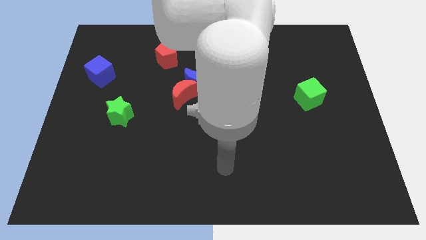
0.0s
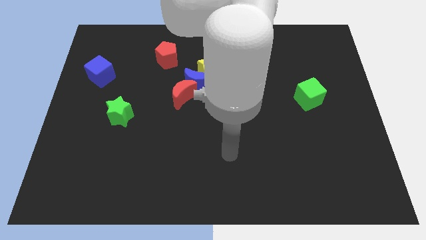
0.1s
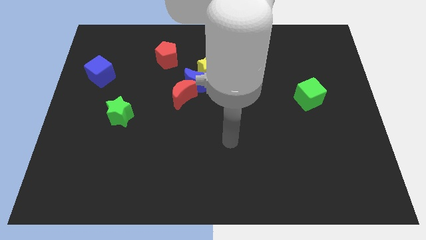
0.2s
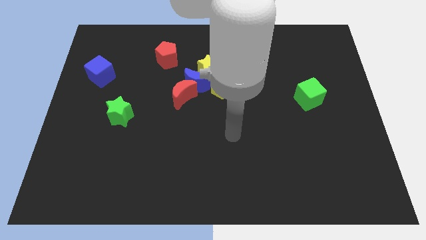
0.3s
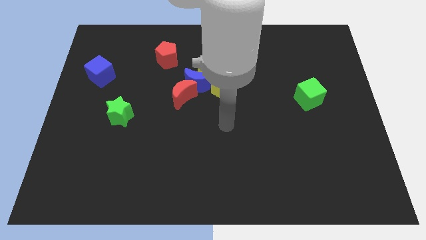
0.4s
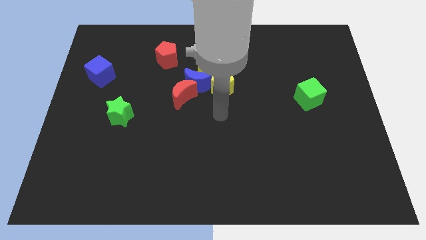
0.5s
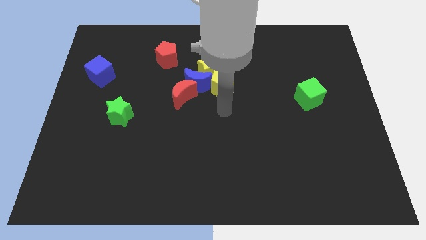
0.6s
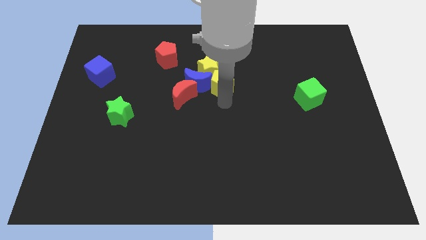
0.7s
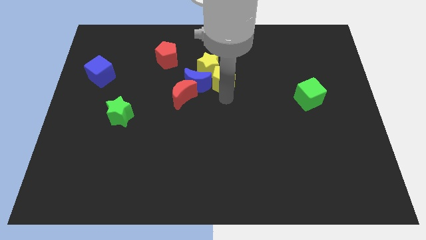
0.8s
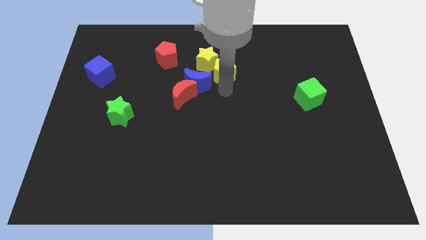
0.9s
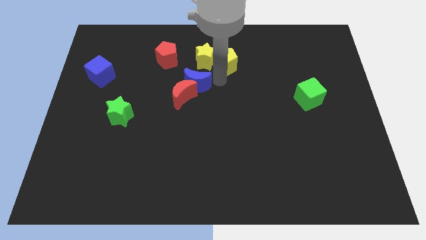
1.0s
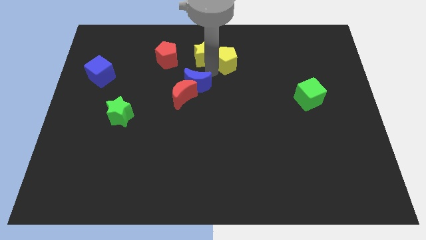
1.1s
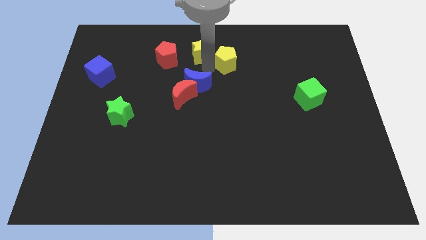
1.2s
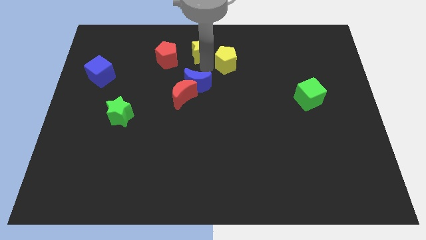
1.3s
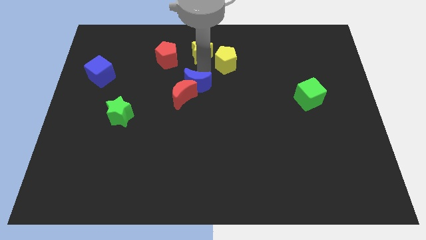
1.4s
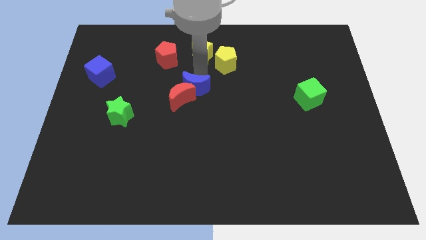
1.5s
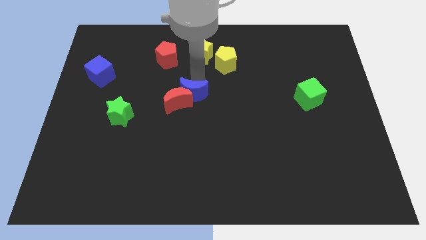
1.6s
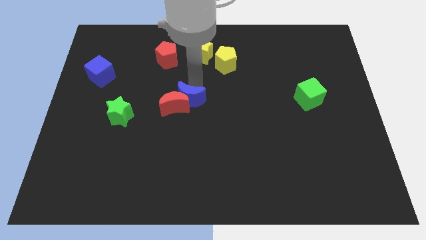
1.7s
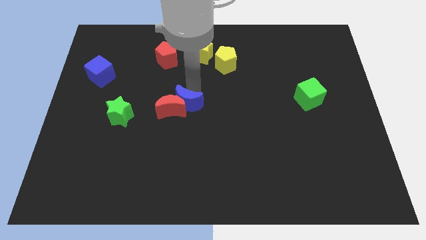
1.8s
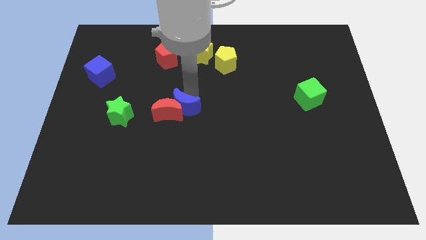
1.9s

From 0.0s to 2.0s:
pull the blue moon apart from the red moon, yellow star, and yellow pentagon

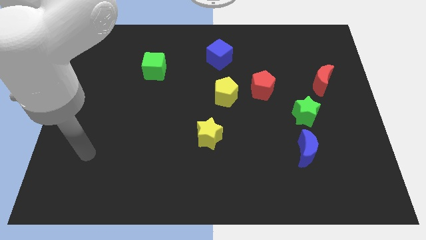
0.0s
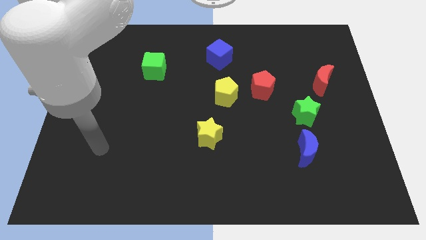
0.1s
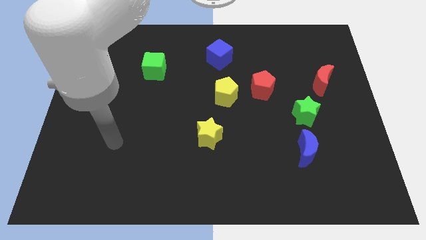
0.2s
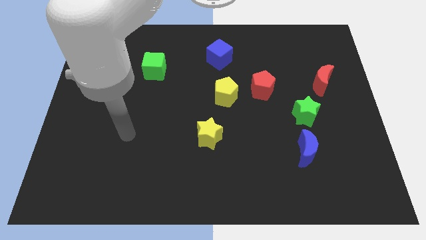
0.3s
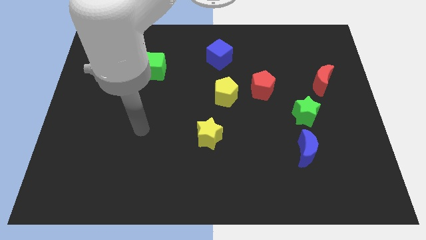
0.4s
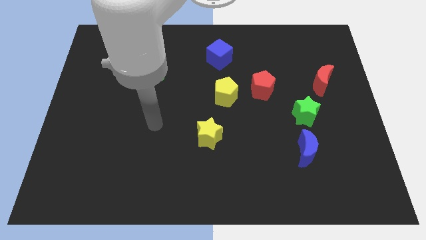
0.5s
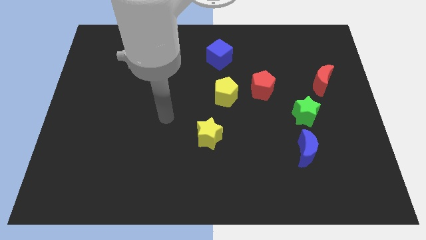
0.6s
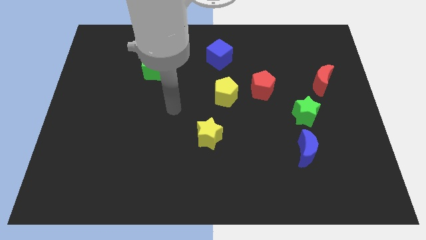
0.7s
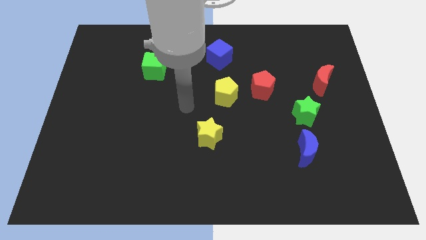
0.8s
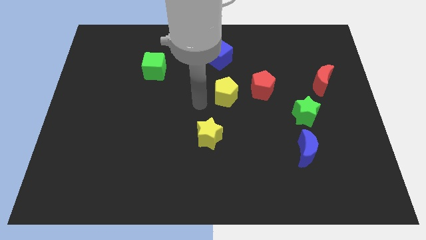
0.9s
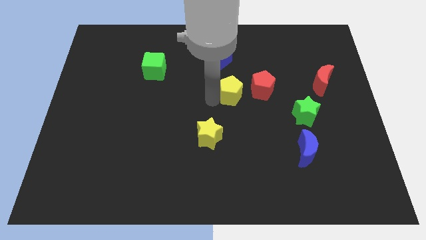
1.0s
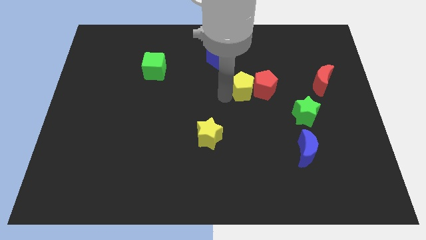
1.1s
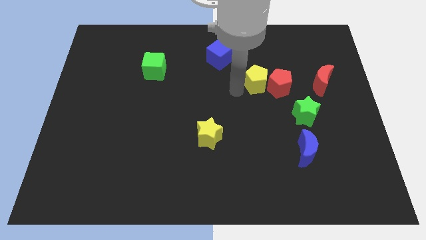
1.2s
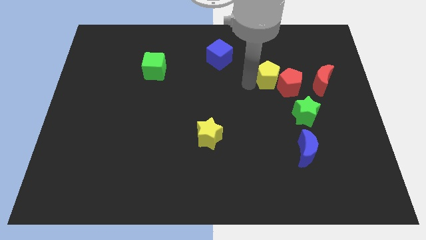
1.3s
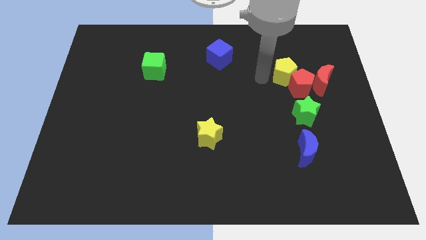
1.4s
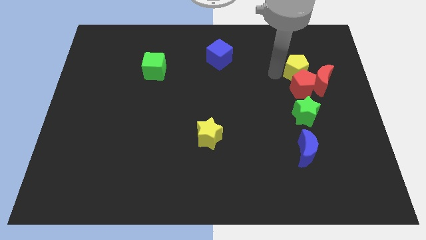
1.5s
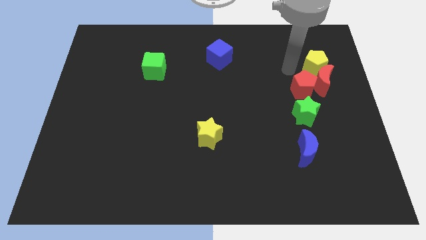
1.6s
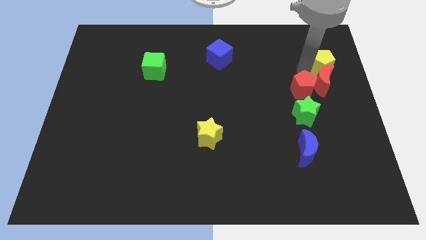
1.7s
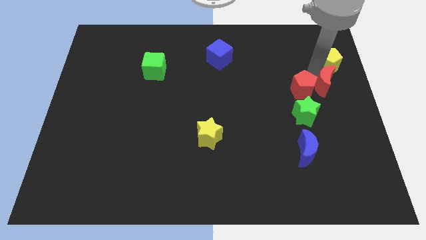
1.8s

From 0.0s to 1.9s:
separate the red pentagon from the yellow pentagon

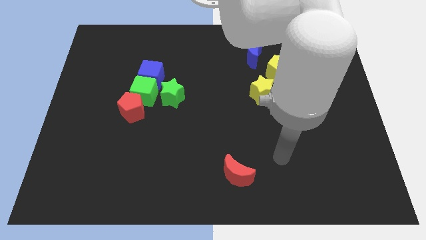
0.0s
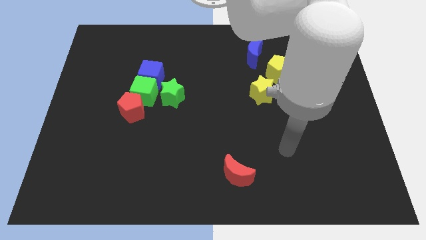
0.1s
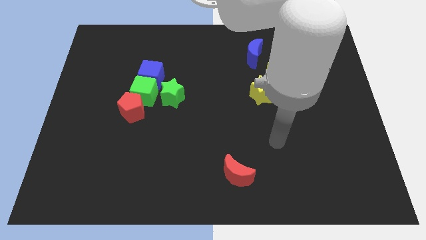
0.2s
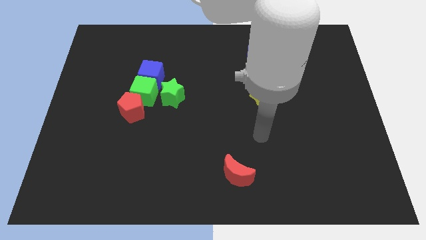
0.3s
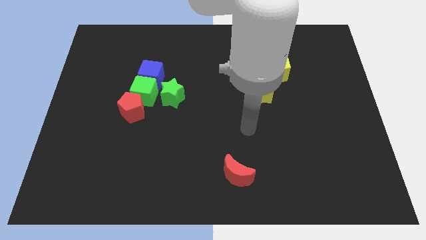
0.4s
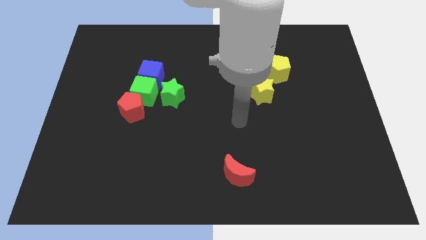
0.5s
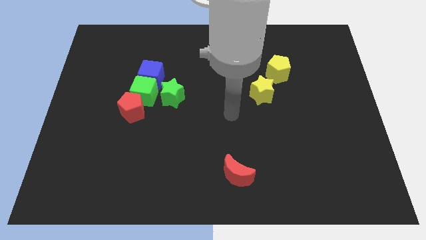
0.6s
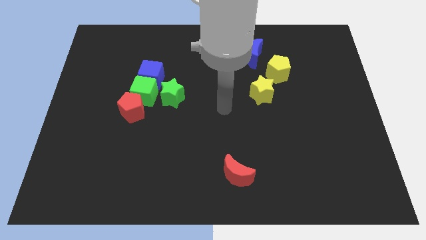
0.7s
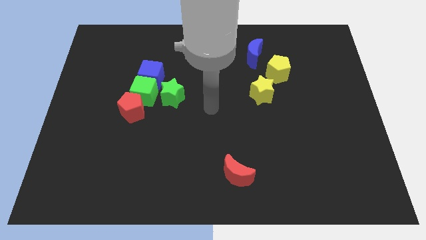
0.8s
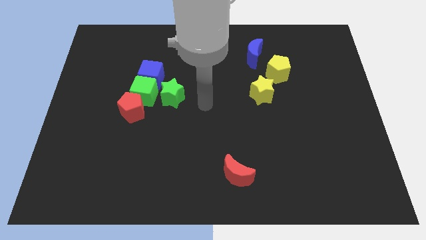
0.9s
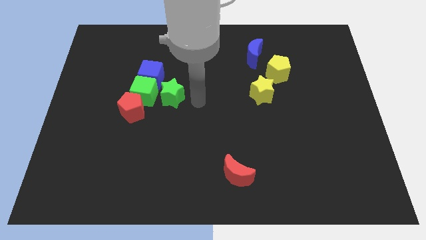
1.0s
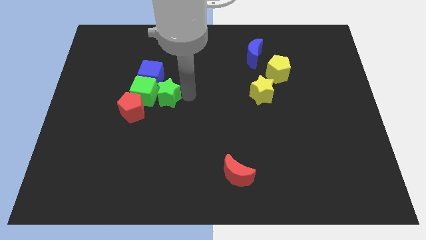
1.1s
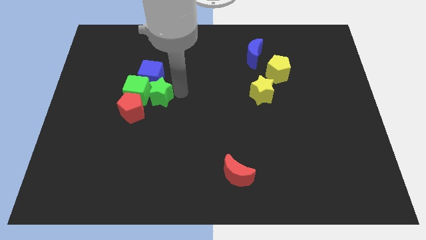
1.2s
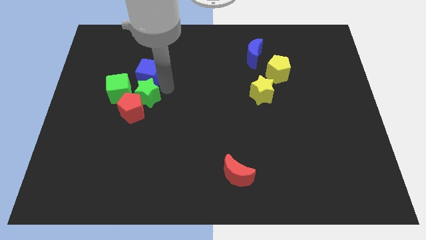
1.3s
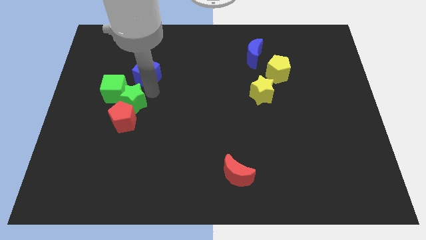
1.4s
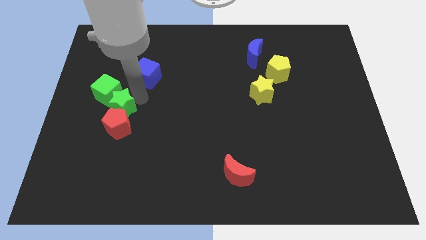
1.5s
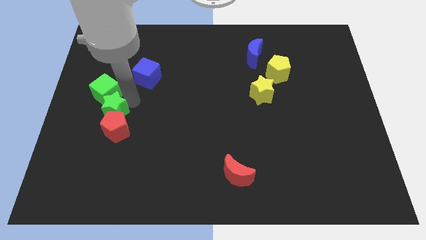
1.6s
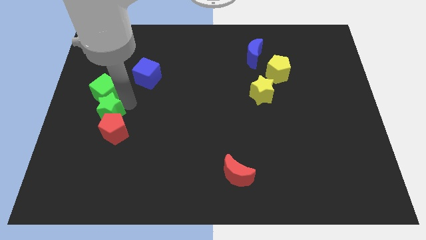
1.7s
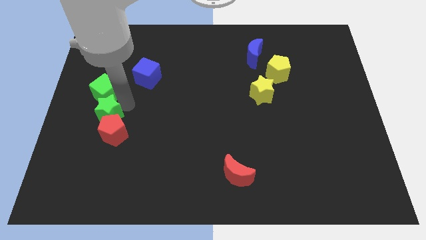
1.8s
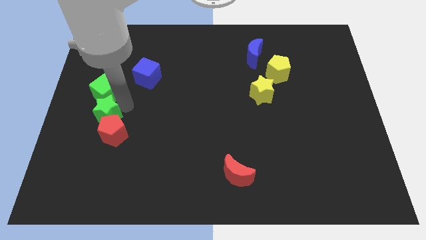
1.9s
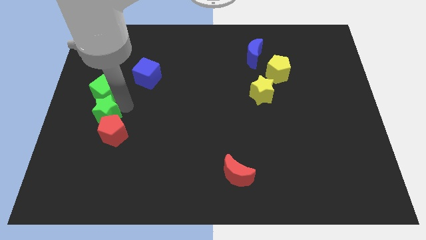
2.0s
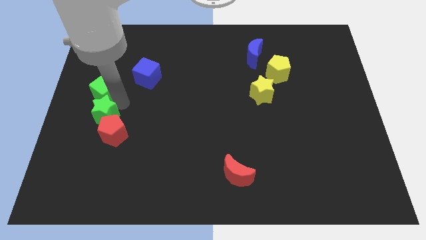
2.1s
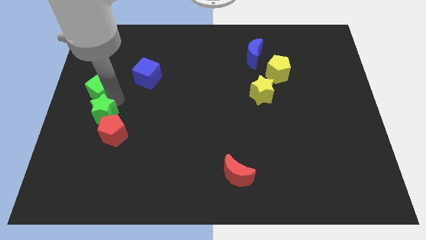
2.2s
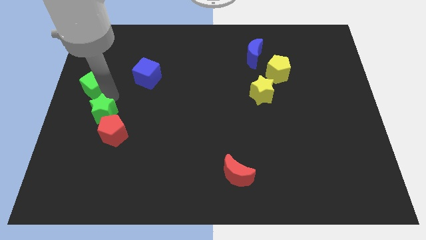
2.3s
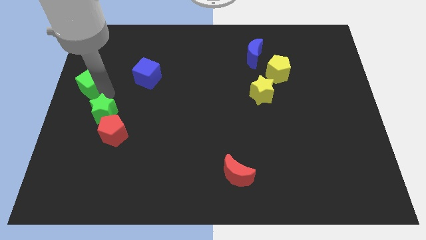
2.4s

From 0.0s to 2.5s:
pull the green cube apart from the blue cube, red pentagon, and green star

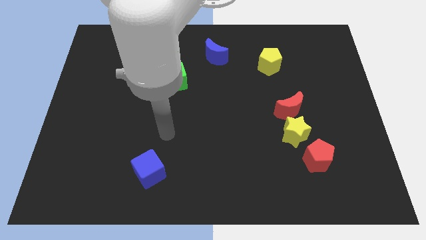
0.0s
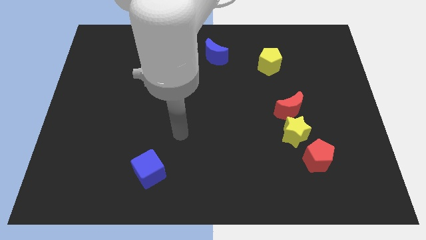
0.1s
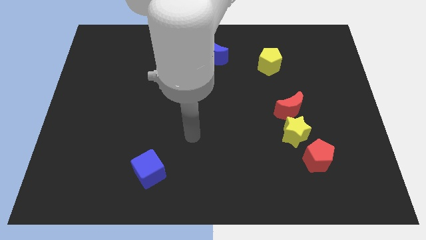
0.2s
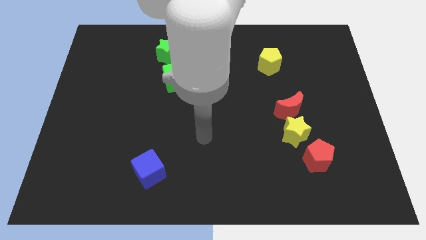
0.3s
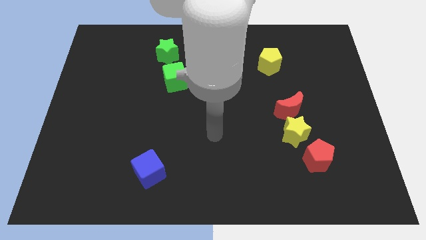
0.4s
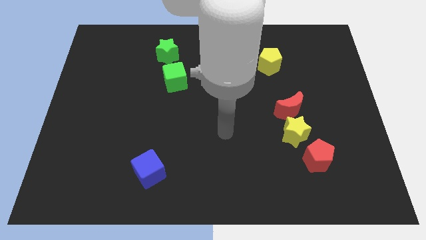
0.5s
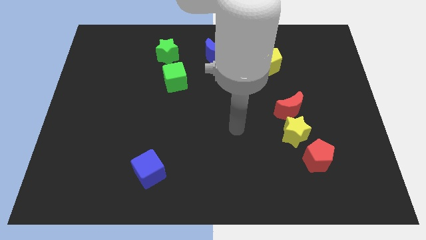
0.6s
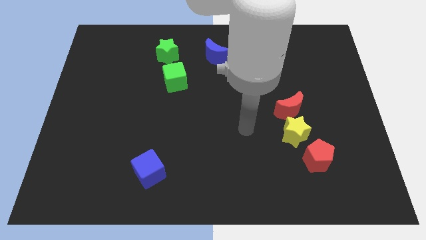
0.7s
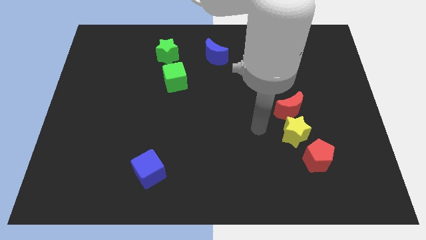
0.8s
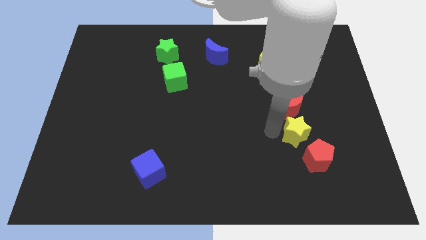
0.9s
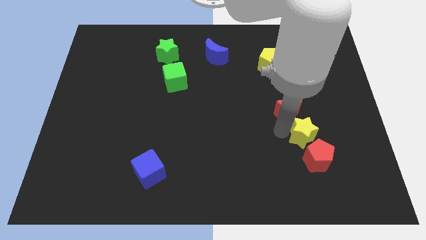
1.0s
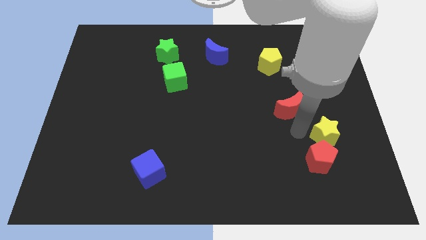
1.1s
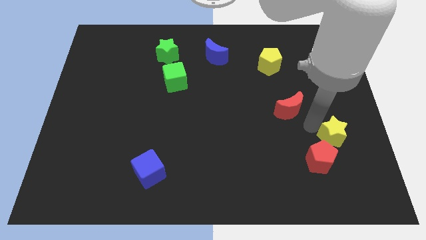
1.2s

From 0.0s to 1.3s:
pull the red moon apart from the yellow star

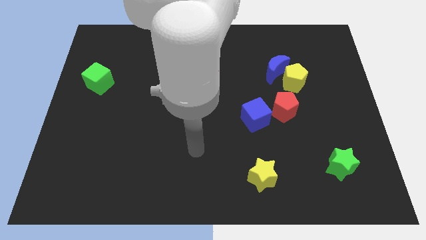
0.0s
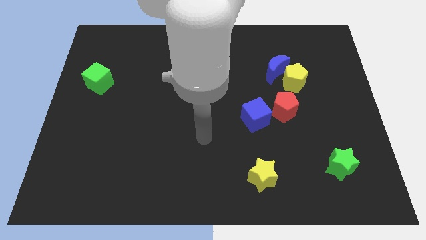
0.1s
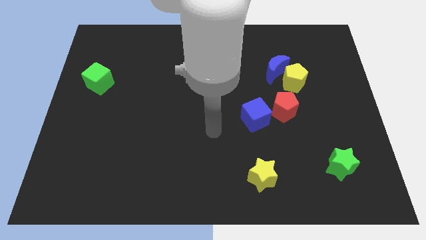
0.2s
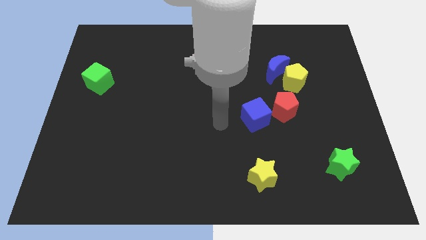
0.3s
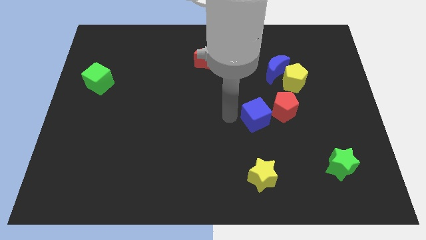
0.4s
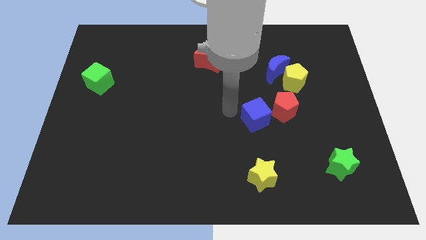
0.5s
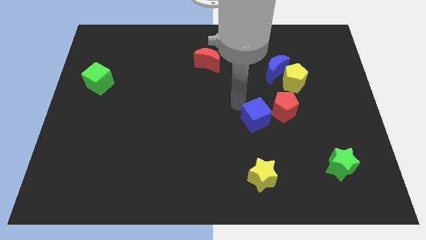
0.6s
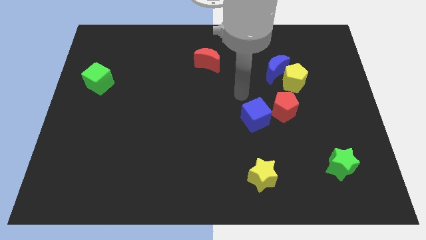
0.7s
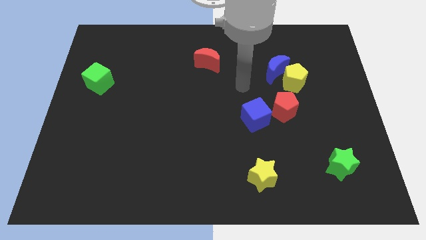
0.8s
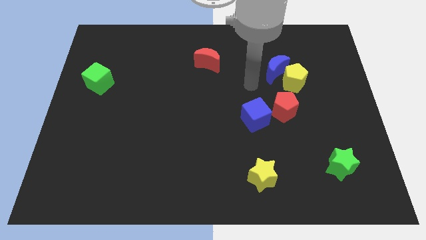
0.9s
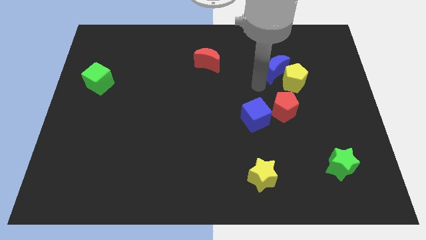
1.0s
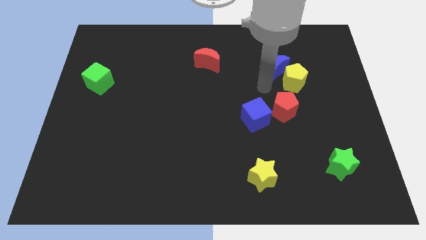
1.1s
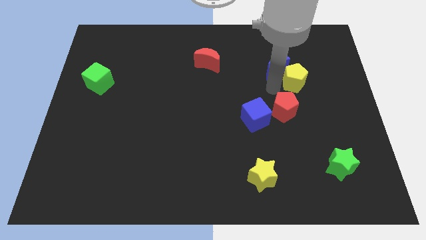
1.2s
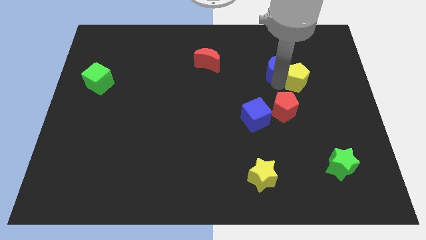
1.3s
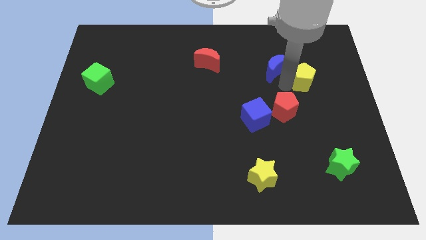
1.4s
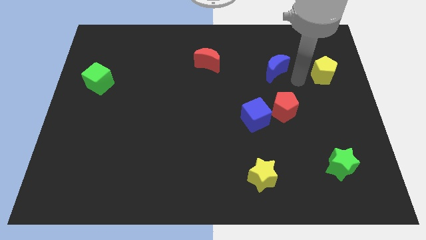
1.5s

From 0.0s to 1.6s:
pull the blue moon apart from the yellow pentagon
